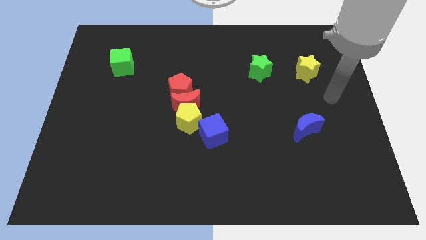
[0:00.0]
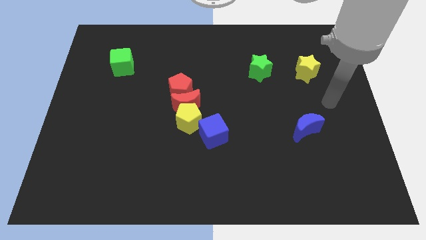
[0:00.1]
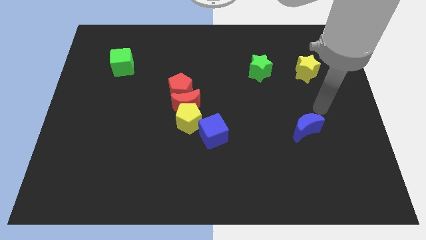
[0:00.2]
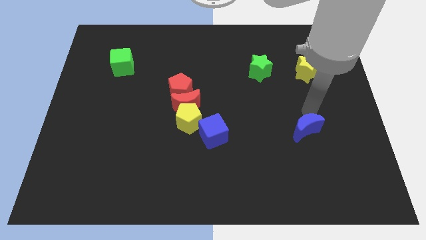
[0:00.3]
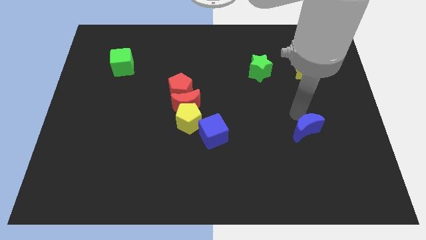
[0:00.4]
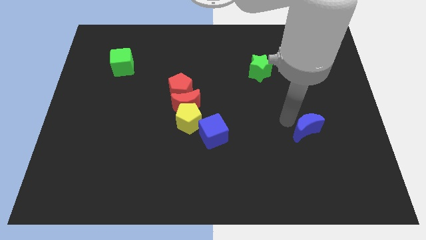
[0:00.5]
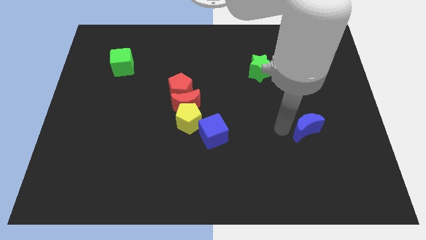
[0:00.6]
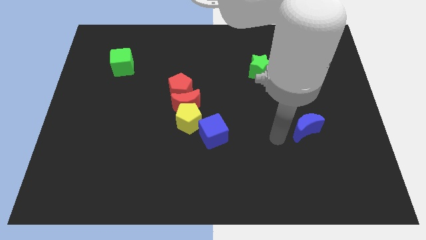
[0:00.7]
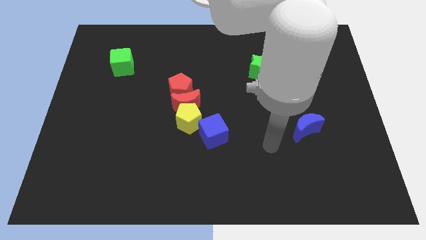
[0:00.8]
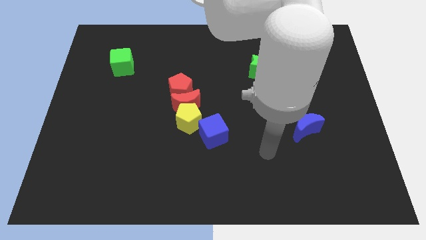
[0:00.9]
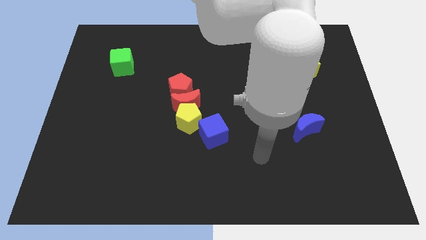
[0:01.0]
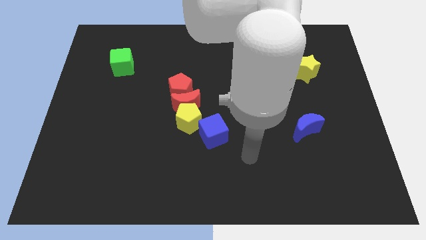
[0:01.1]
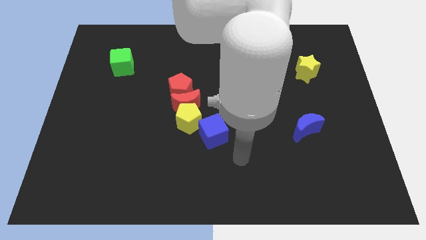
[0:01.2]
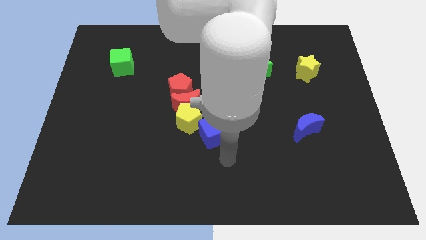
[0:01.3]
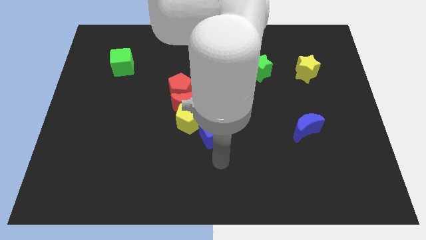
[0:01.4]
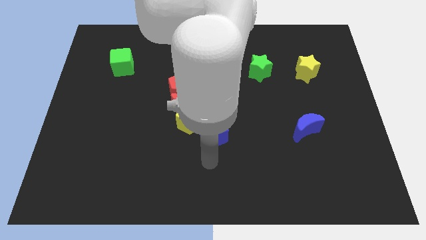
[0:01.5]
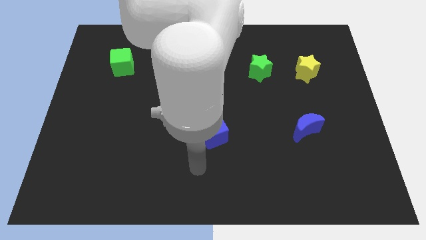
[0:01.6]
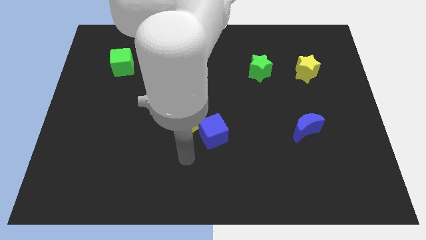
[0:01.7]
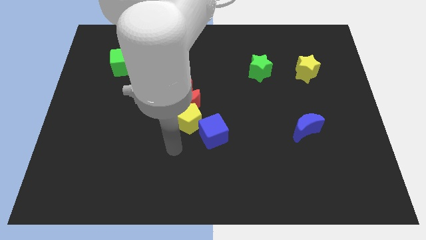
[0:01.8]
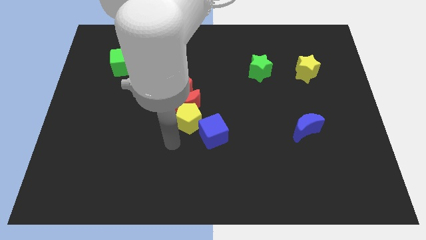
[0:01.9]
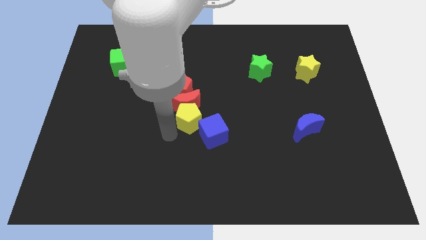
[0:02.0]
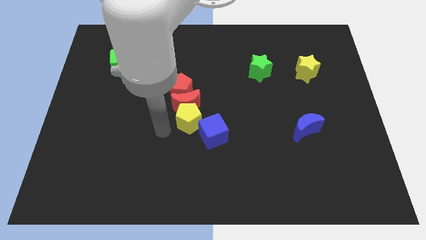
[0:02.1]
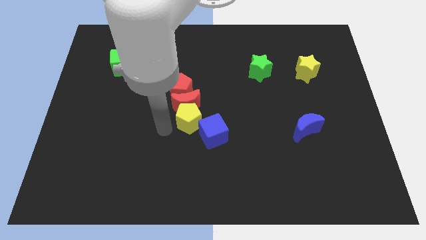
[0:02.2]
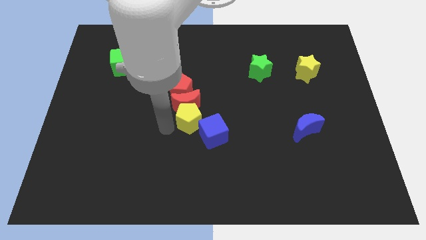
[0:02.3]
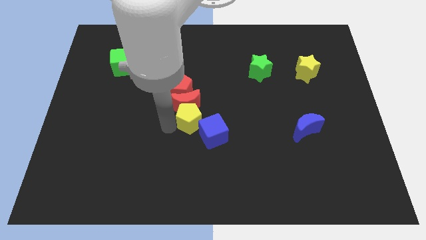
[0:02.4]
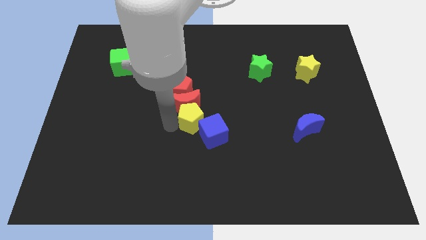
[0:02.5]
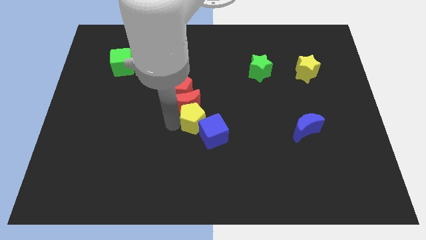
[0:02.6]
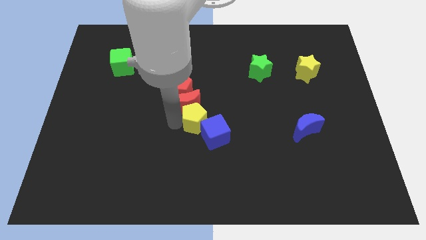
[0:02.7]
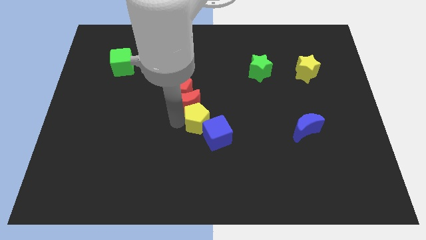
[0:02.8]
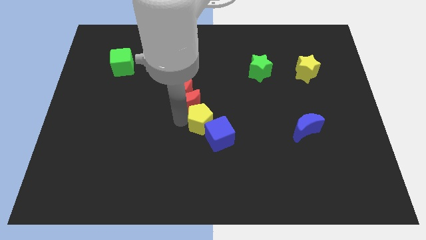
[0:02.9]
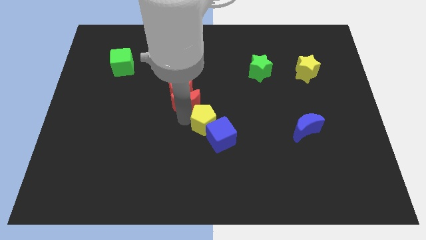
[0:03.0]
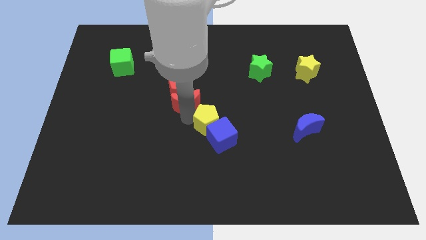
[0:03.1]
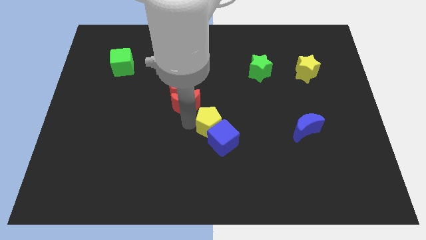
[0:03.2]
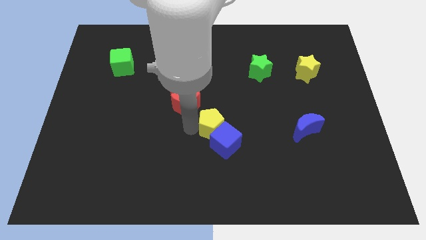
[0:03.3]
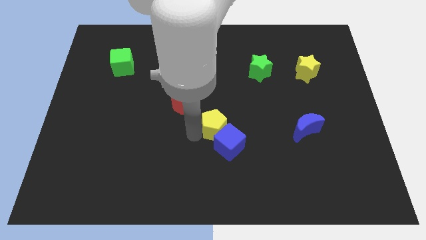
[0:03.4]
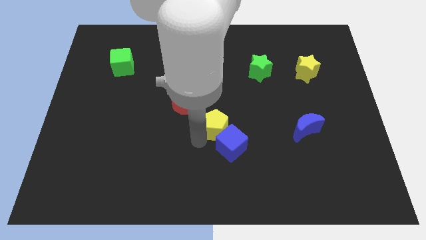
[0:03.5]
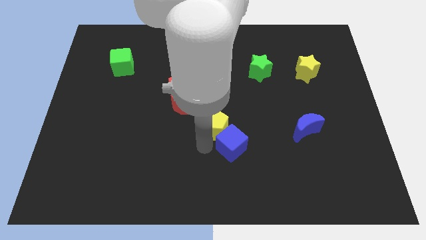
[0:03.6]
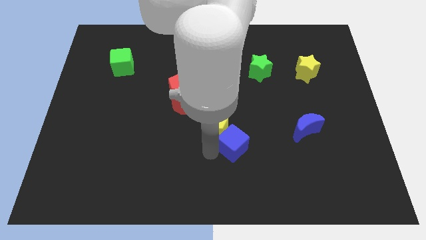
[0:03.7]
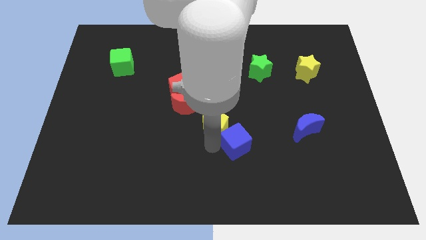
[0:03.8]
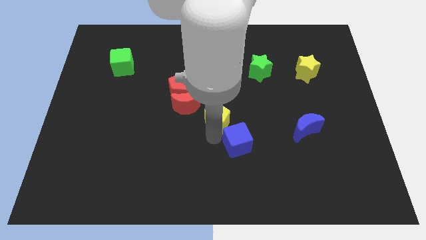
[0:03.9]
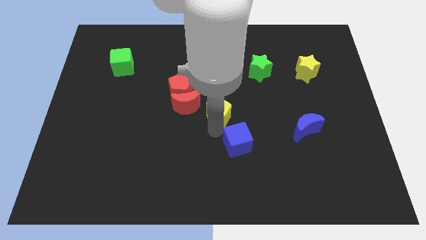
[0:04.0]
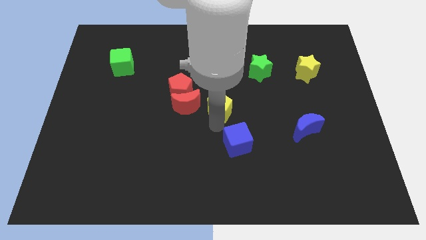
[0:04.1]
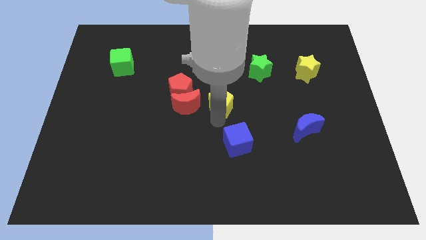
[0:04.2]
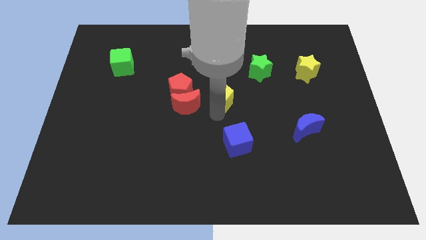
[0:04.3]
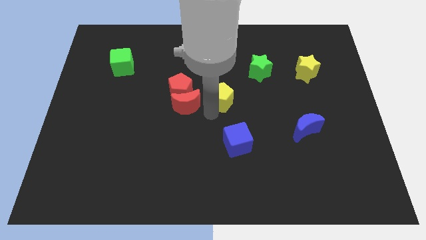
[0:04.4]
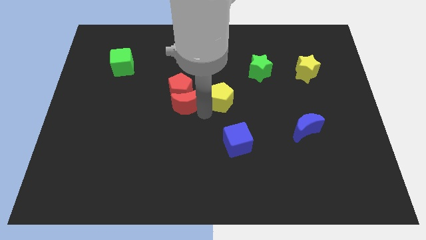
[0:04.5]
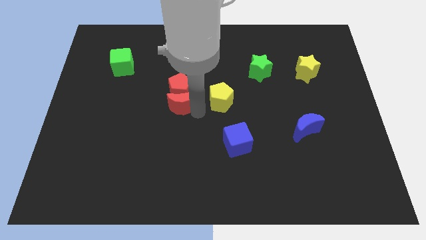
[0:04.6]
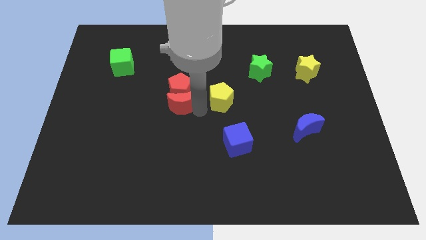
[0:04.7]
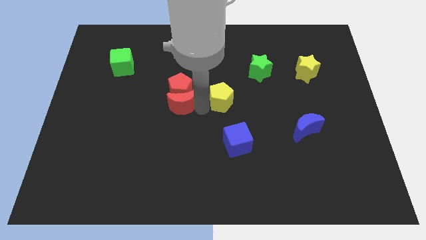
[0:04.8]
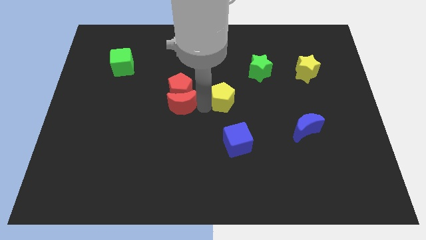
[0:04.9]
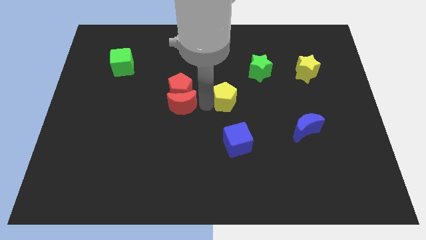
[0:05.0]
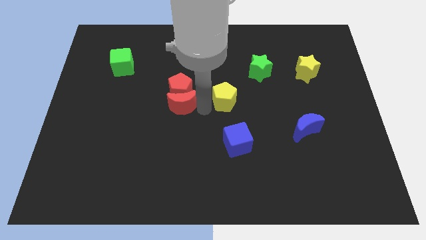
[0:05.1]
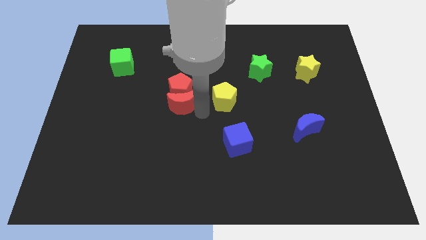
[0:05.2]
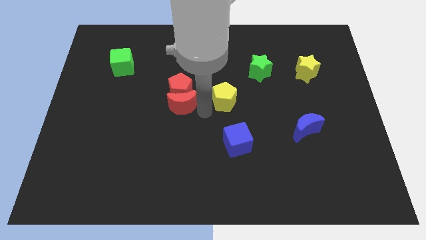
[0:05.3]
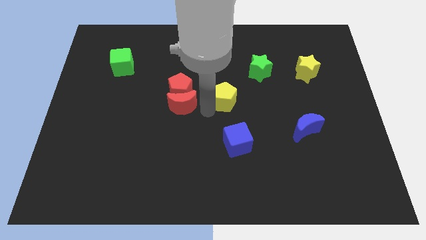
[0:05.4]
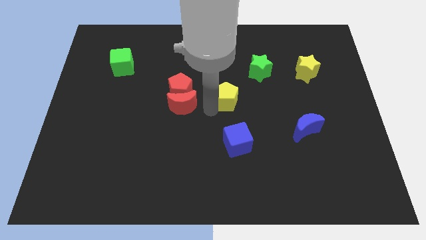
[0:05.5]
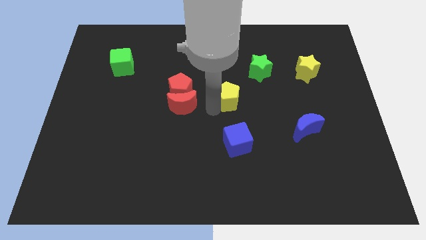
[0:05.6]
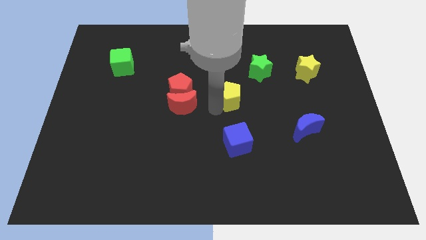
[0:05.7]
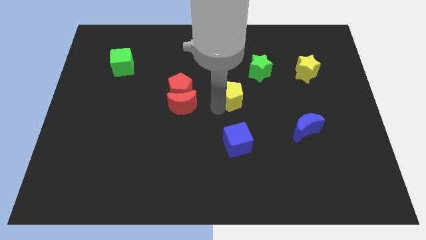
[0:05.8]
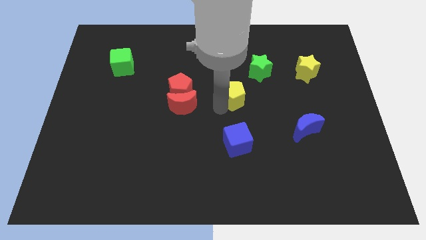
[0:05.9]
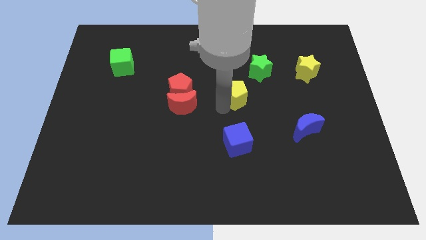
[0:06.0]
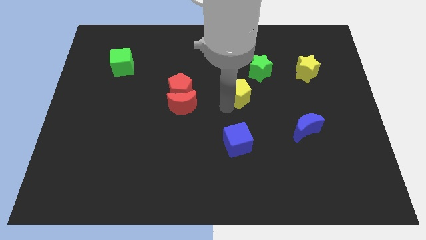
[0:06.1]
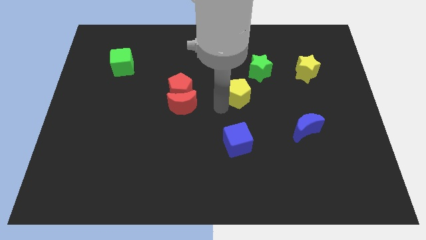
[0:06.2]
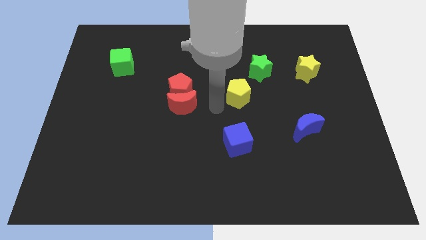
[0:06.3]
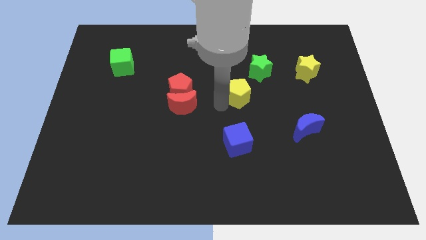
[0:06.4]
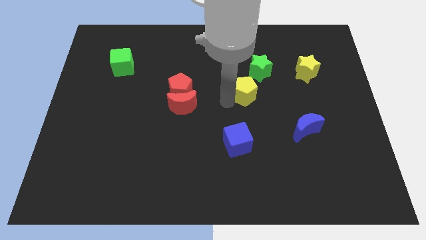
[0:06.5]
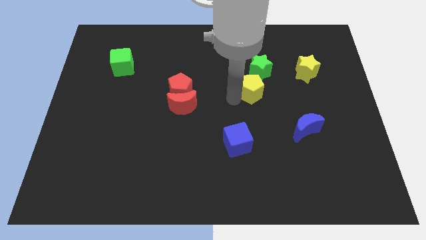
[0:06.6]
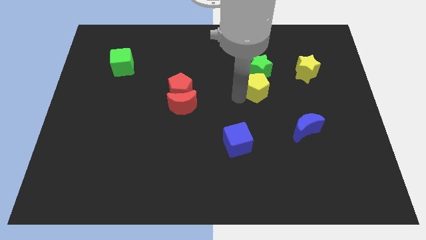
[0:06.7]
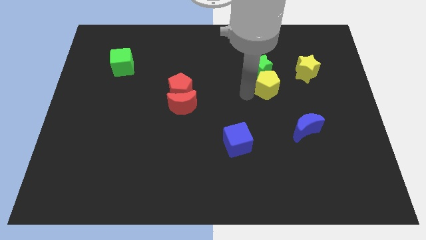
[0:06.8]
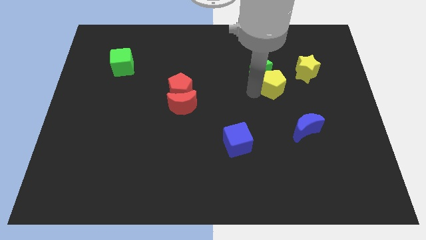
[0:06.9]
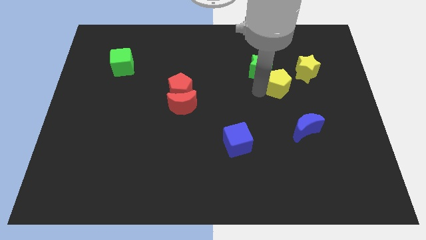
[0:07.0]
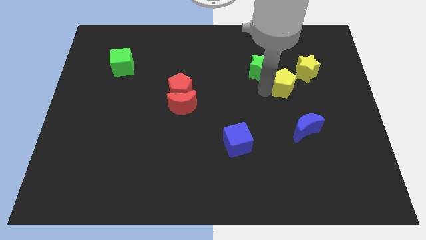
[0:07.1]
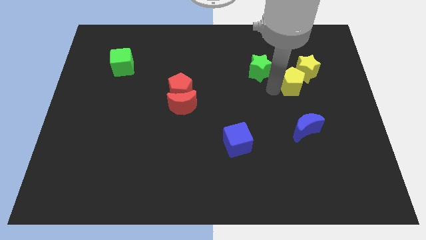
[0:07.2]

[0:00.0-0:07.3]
push the yellow pentagon towards the yellow star

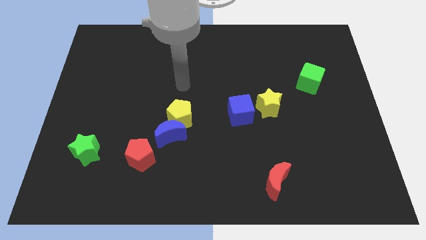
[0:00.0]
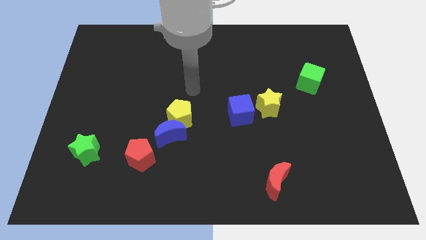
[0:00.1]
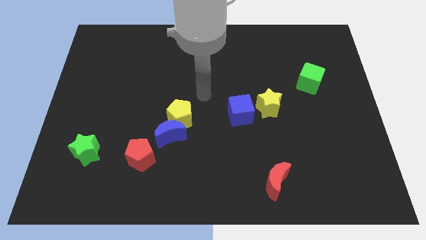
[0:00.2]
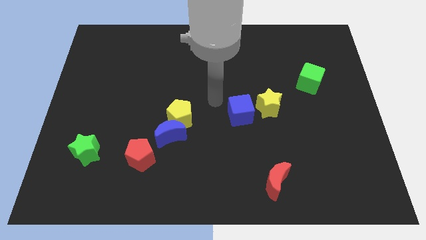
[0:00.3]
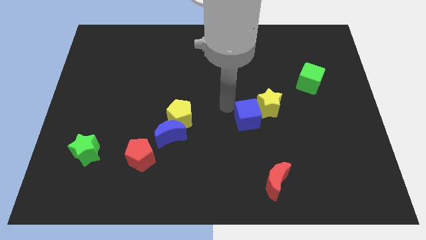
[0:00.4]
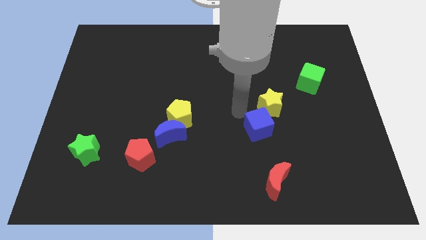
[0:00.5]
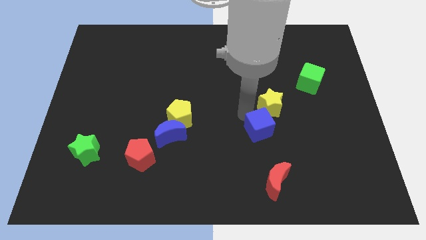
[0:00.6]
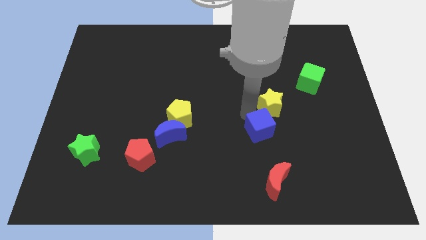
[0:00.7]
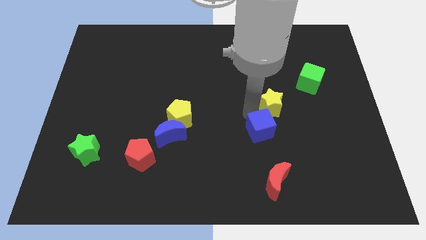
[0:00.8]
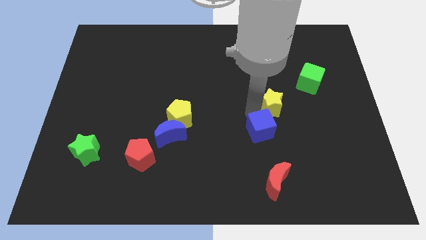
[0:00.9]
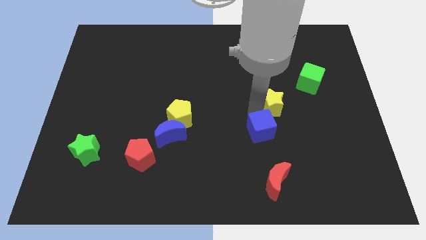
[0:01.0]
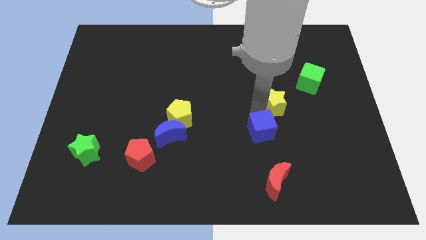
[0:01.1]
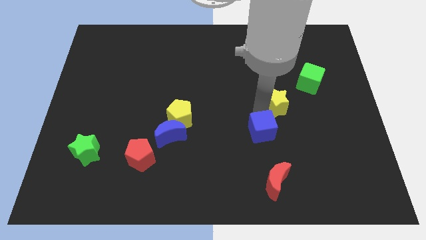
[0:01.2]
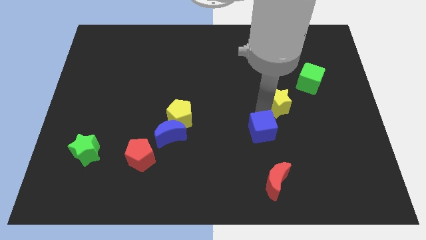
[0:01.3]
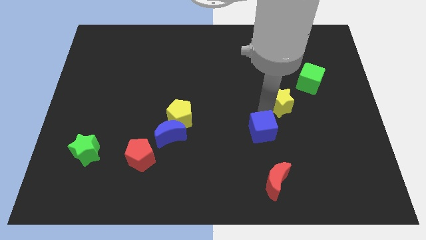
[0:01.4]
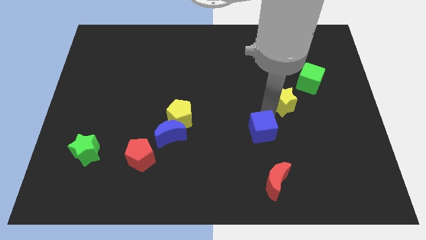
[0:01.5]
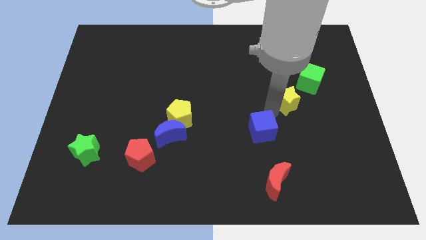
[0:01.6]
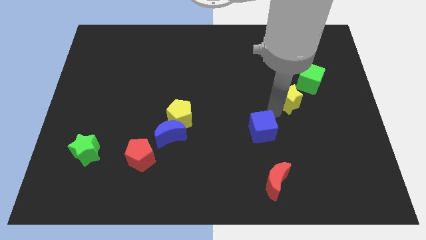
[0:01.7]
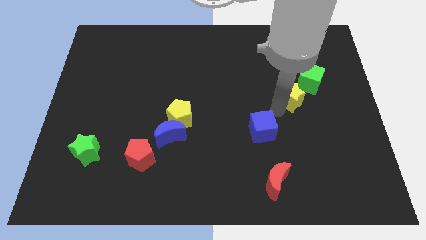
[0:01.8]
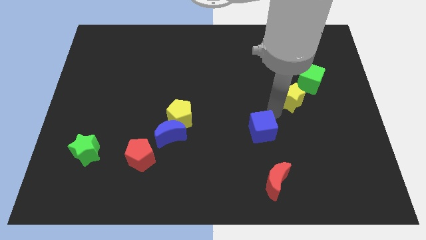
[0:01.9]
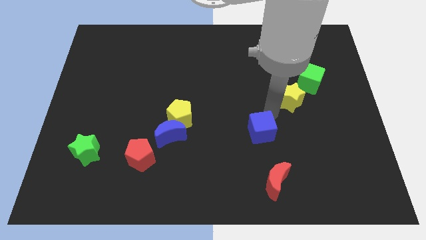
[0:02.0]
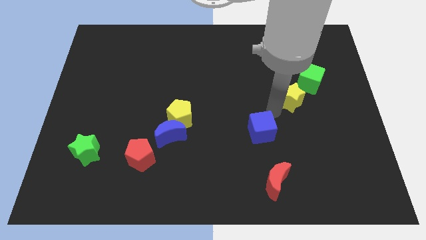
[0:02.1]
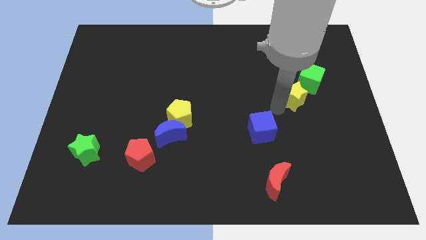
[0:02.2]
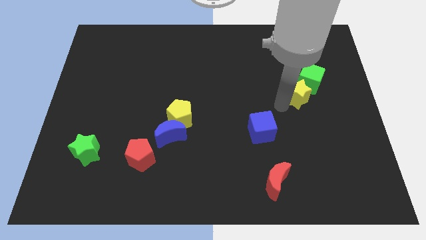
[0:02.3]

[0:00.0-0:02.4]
push the yellow star towards the green cube
